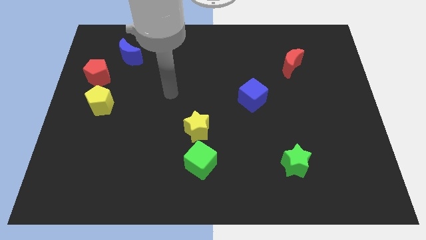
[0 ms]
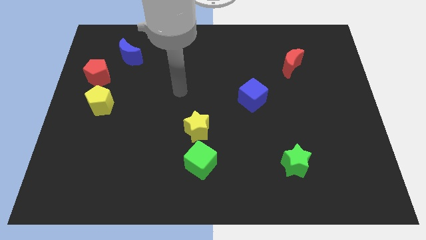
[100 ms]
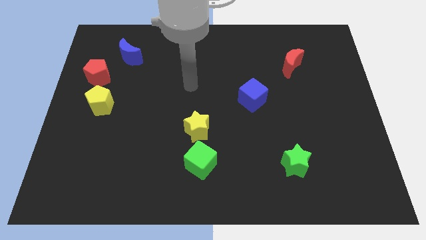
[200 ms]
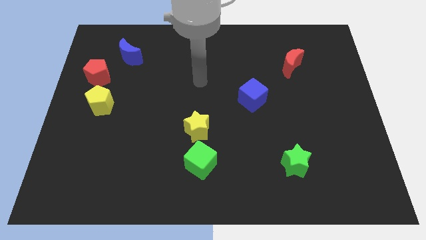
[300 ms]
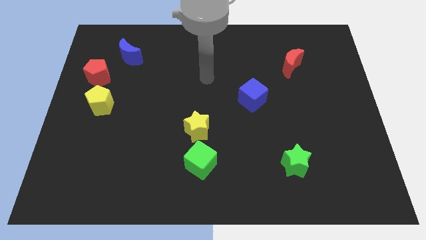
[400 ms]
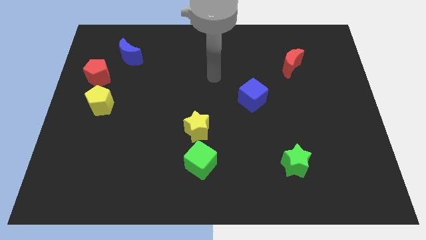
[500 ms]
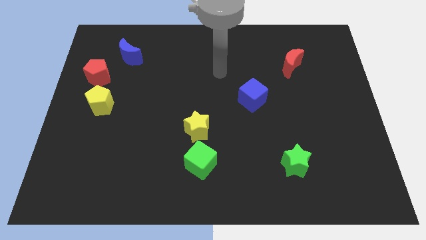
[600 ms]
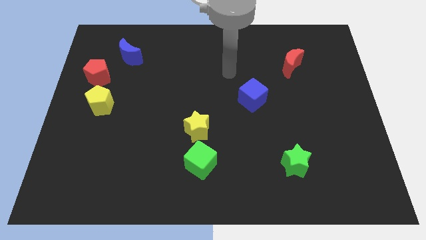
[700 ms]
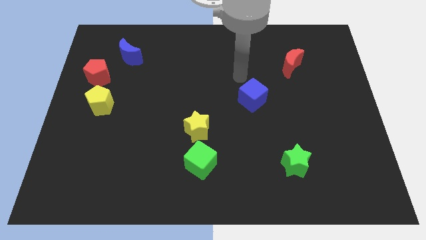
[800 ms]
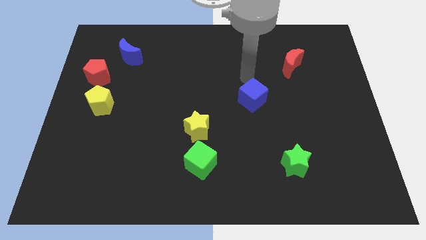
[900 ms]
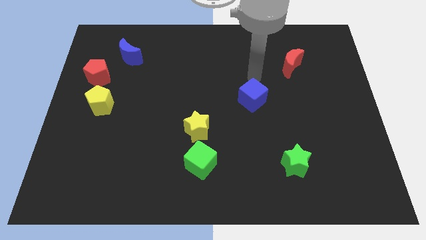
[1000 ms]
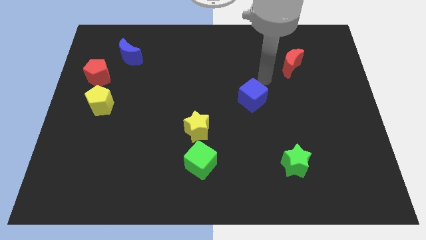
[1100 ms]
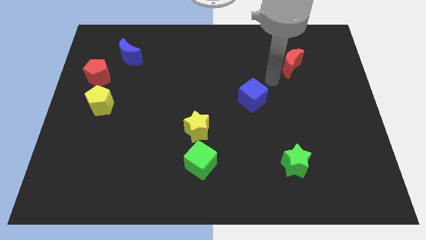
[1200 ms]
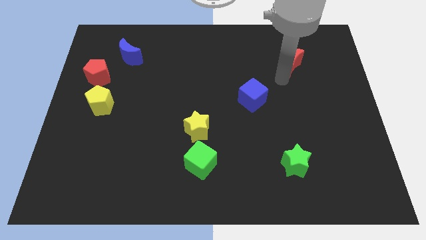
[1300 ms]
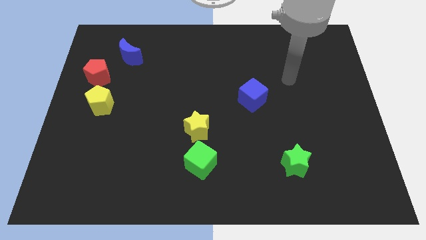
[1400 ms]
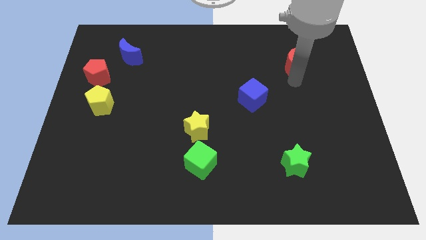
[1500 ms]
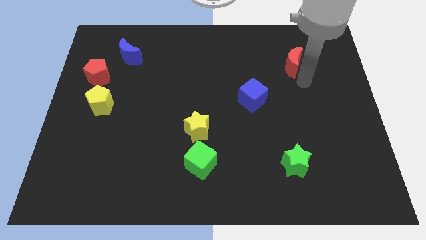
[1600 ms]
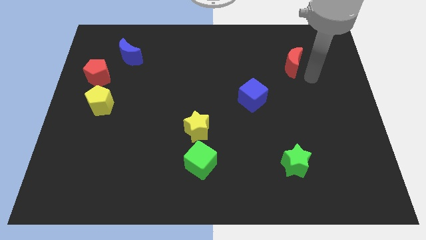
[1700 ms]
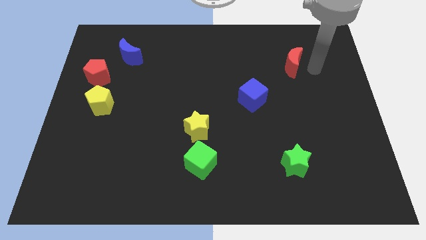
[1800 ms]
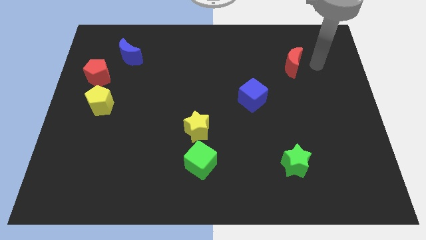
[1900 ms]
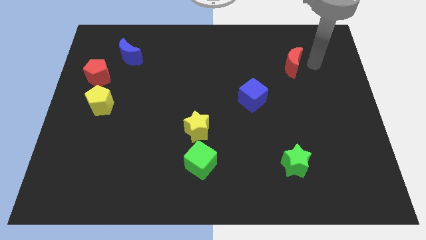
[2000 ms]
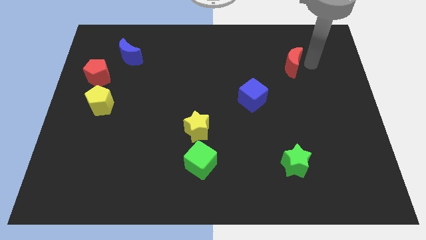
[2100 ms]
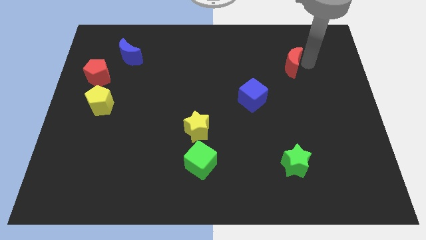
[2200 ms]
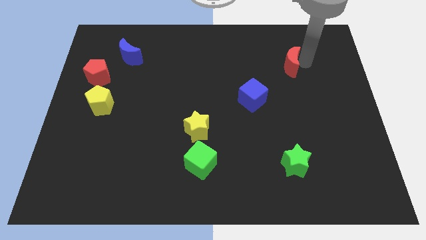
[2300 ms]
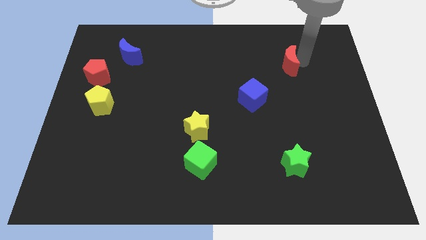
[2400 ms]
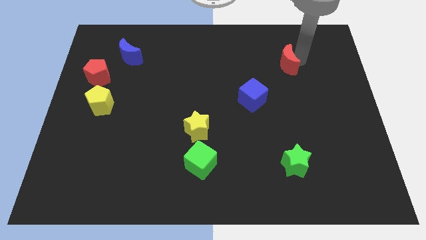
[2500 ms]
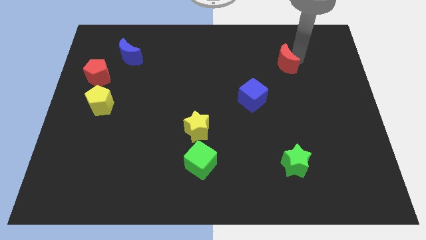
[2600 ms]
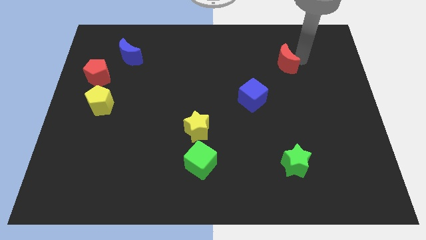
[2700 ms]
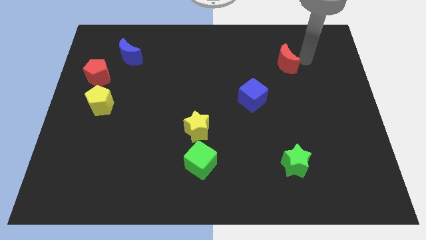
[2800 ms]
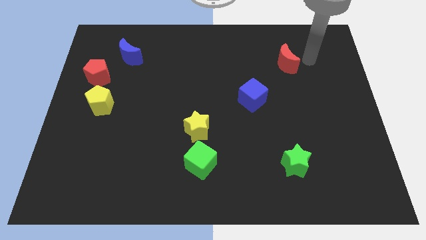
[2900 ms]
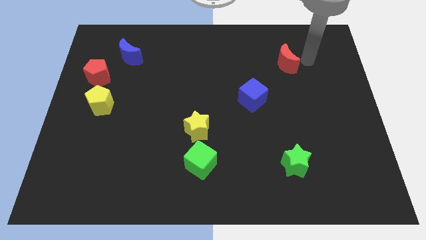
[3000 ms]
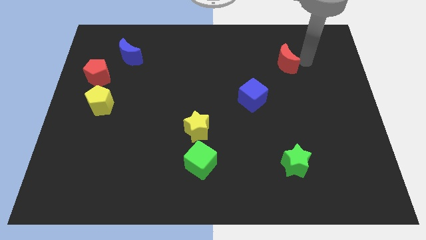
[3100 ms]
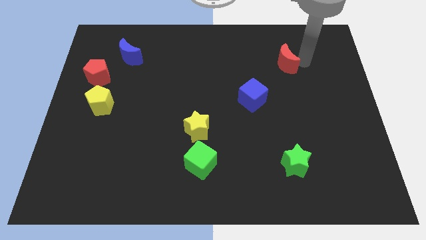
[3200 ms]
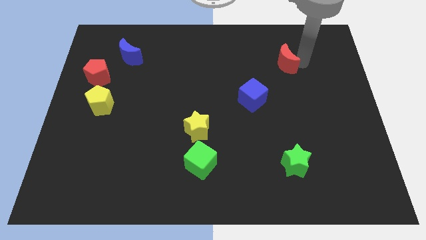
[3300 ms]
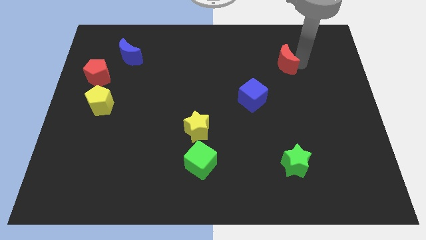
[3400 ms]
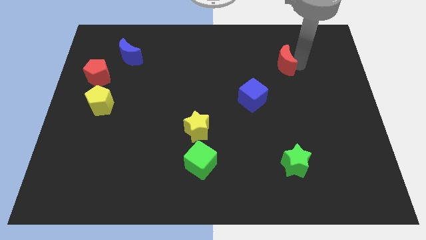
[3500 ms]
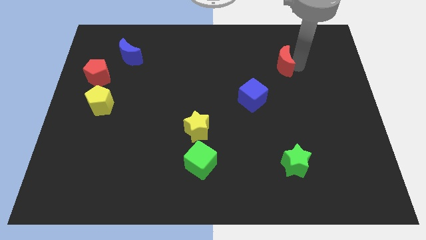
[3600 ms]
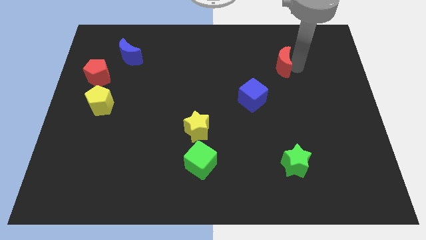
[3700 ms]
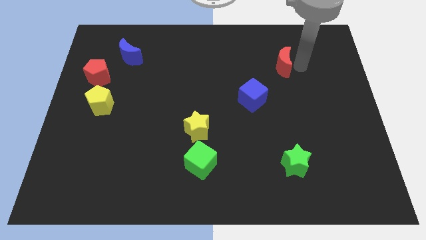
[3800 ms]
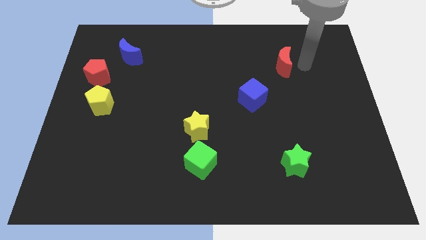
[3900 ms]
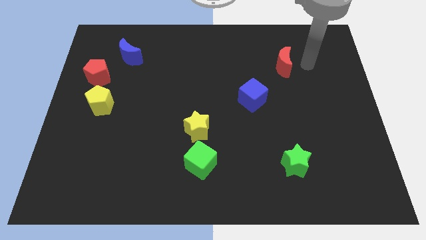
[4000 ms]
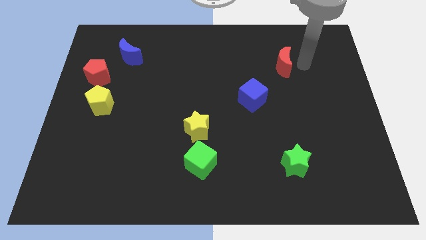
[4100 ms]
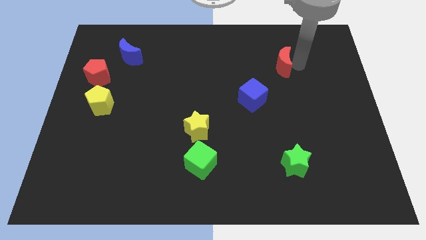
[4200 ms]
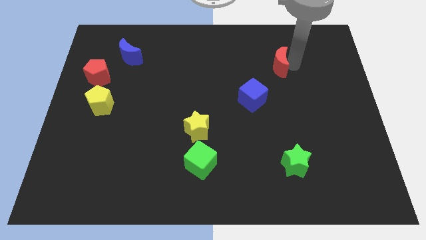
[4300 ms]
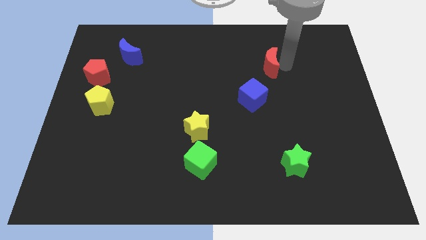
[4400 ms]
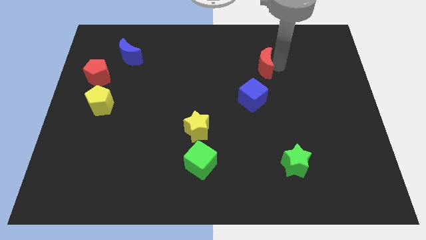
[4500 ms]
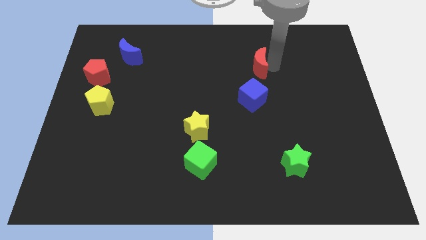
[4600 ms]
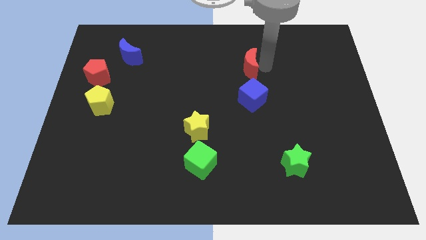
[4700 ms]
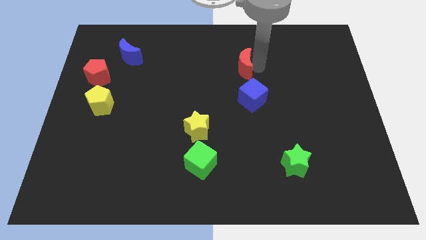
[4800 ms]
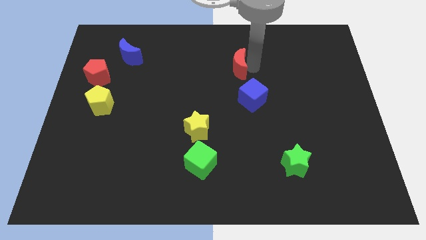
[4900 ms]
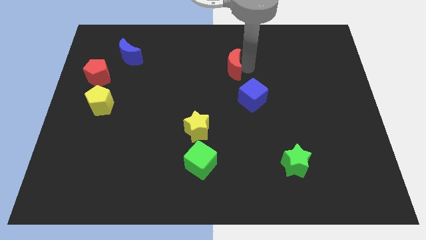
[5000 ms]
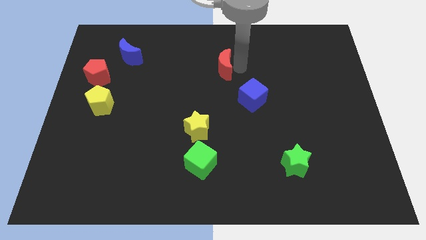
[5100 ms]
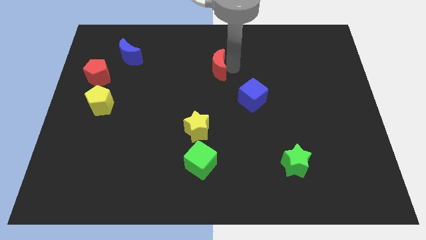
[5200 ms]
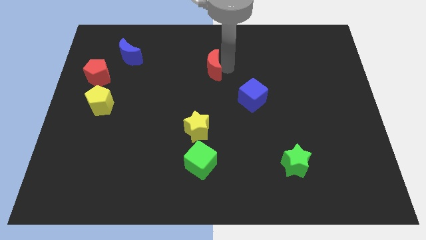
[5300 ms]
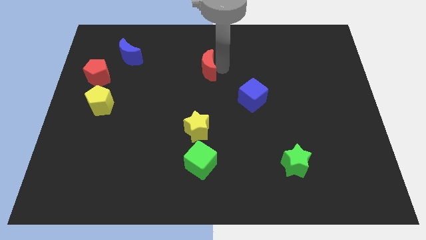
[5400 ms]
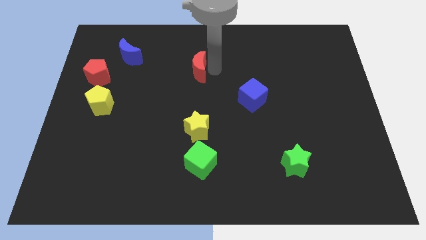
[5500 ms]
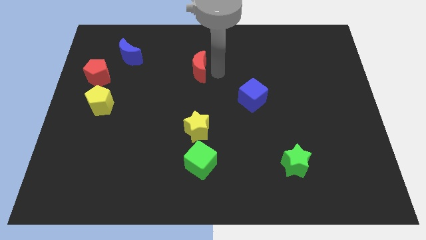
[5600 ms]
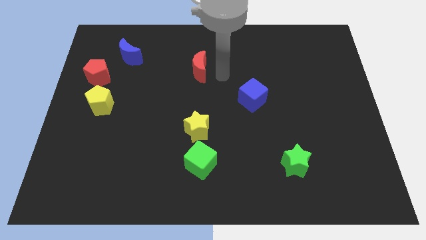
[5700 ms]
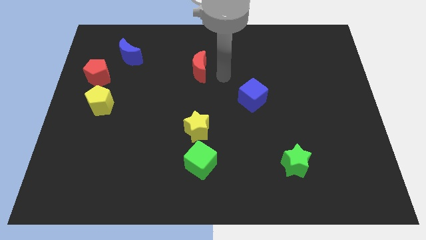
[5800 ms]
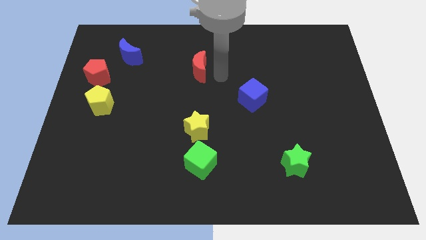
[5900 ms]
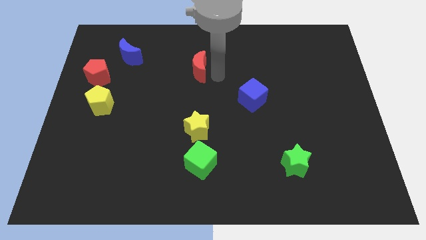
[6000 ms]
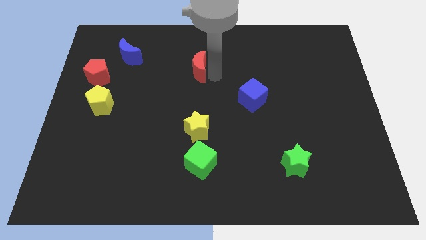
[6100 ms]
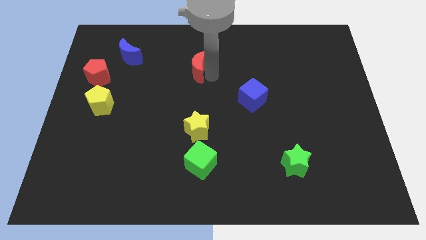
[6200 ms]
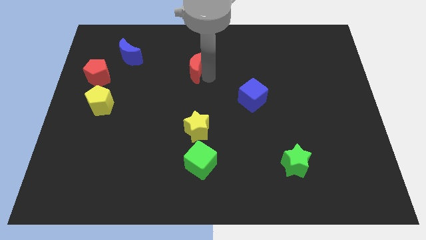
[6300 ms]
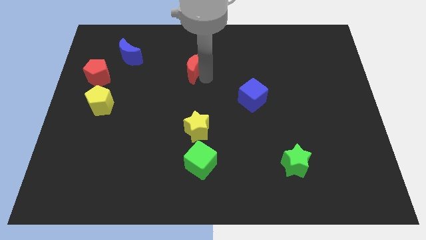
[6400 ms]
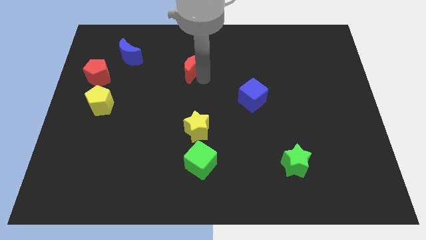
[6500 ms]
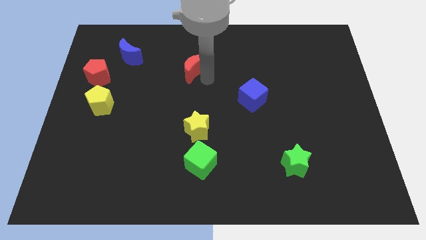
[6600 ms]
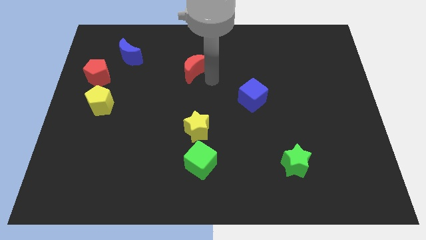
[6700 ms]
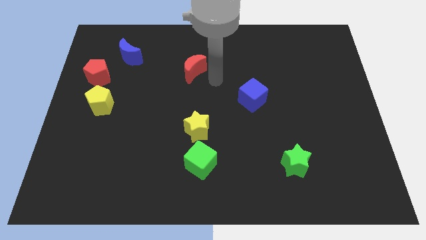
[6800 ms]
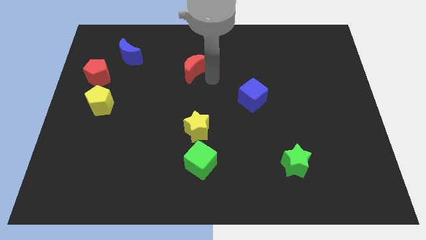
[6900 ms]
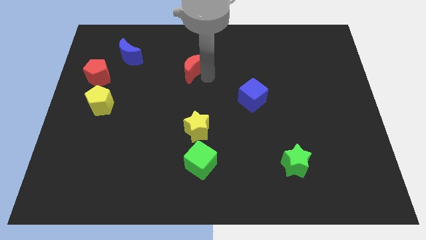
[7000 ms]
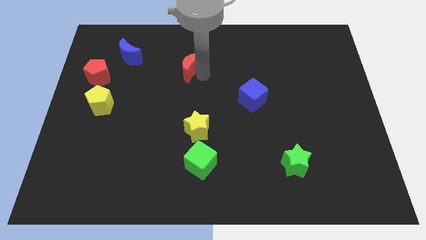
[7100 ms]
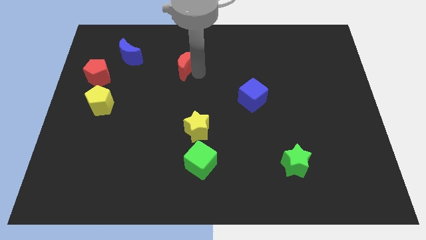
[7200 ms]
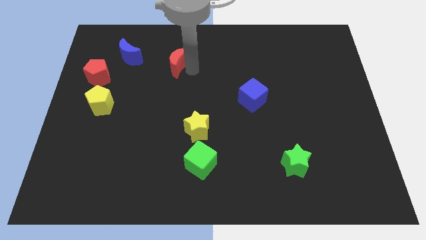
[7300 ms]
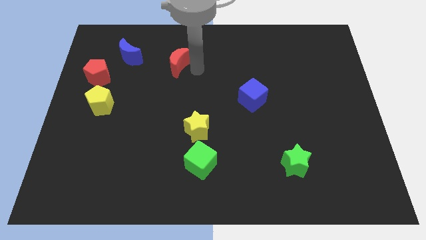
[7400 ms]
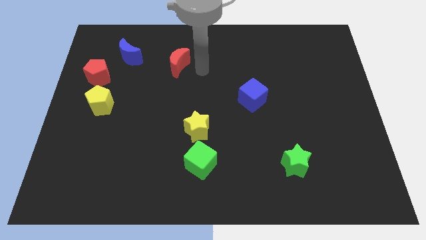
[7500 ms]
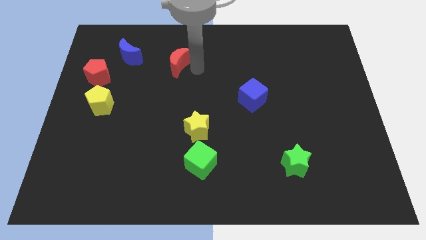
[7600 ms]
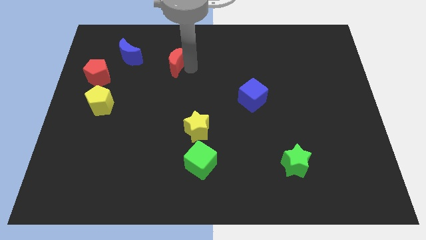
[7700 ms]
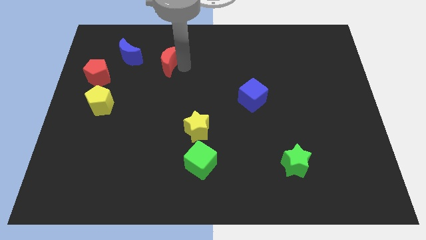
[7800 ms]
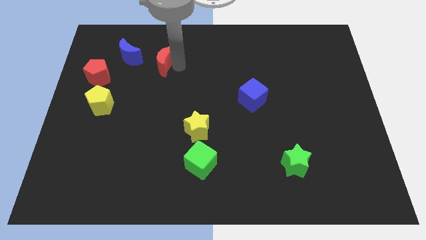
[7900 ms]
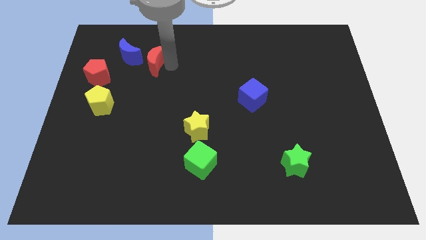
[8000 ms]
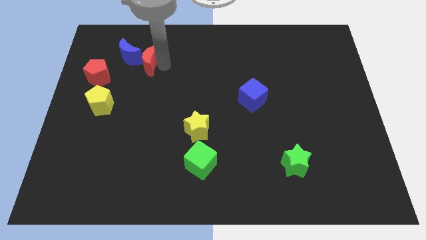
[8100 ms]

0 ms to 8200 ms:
move the red moon close to the blue moon
